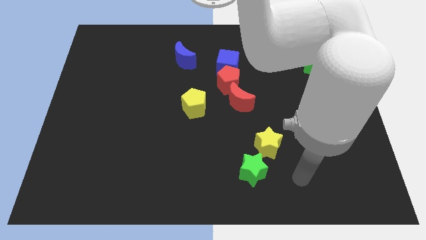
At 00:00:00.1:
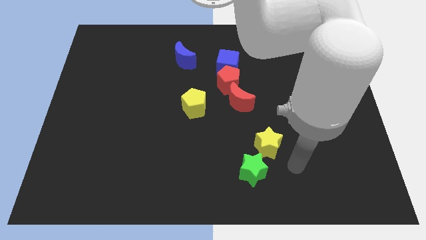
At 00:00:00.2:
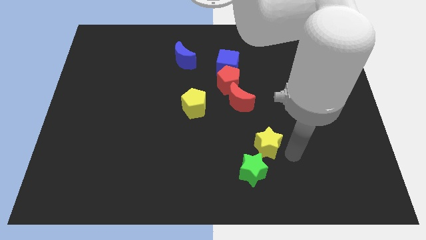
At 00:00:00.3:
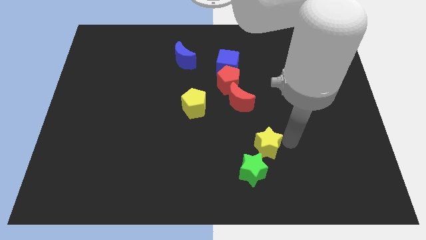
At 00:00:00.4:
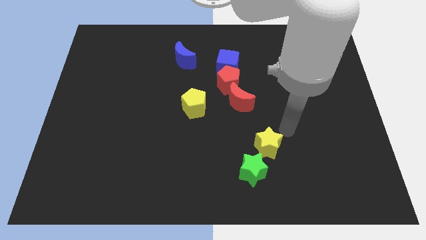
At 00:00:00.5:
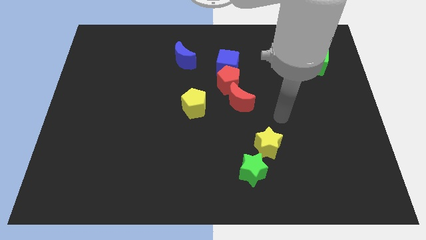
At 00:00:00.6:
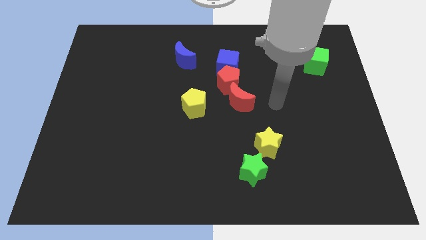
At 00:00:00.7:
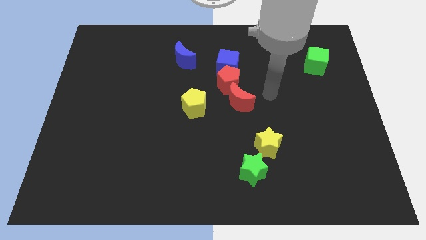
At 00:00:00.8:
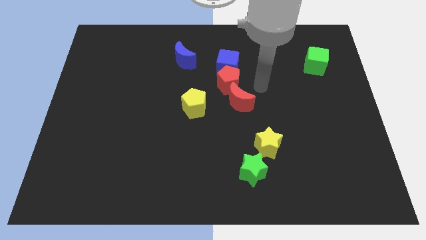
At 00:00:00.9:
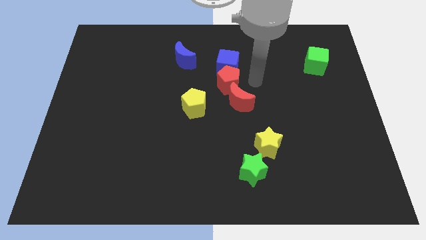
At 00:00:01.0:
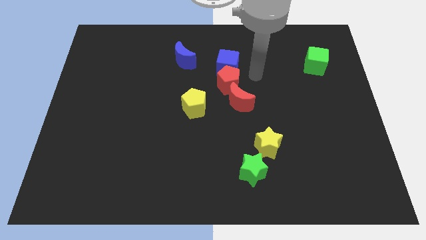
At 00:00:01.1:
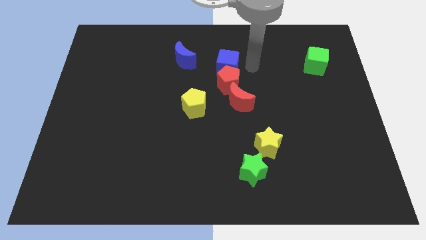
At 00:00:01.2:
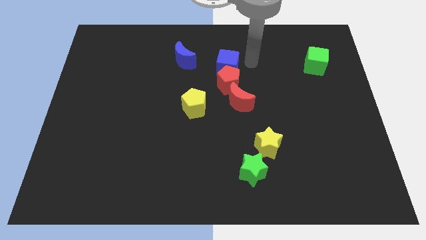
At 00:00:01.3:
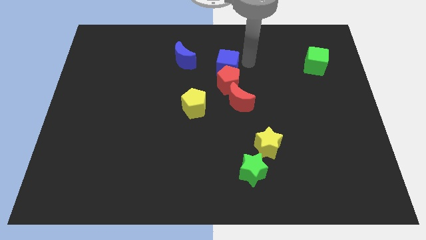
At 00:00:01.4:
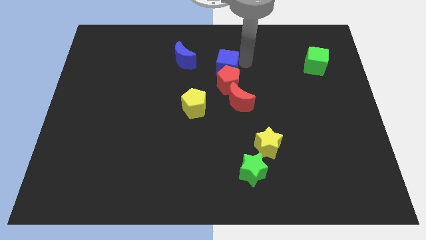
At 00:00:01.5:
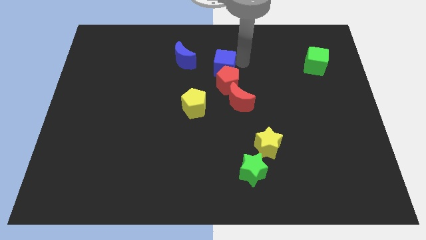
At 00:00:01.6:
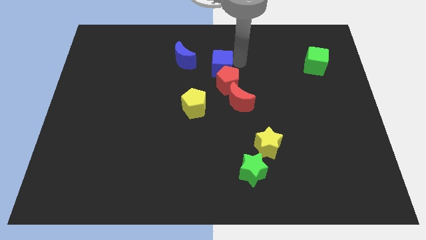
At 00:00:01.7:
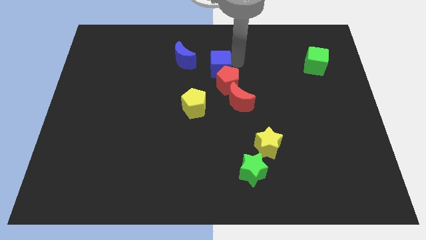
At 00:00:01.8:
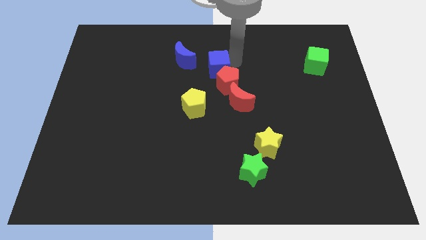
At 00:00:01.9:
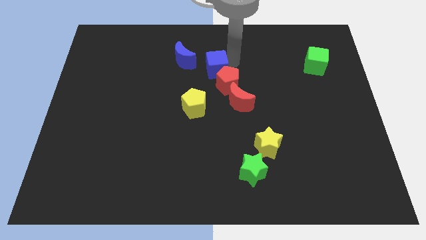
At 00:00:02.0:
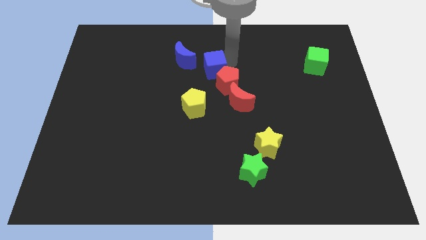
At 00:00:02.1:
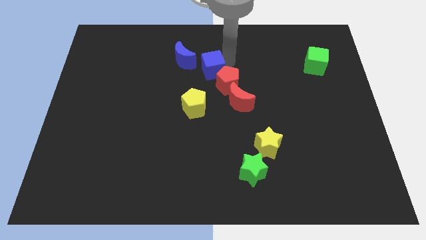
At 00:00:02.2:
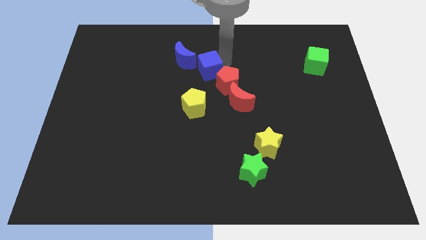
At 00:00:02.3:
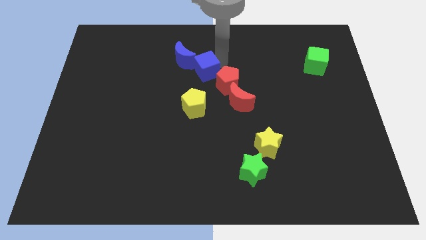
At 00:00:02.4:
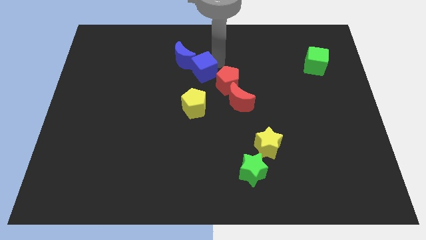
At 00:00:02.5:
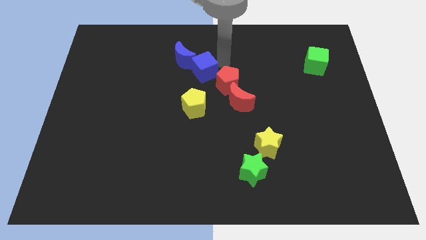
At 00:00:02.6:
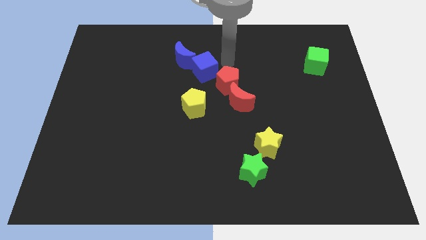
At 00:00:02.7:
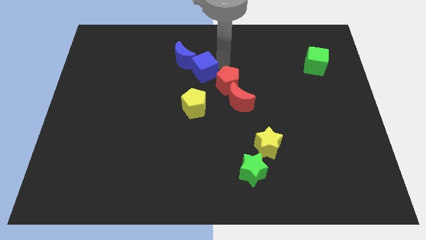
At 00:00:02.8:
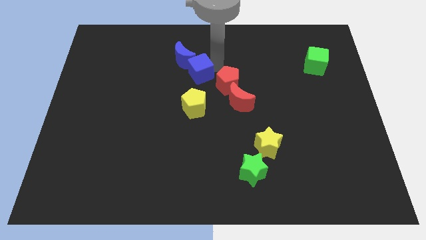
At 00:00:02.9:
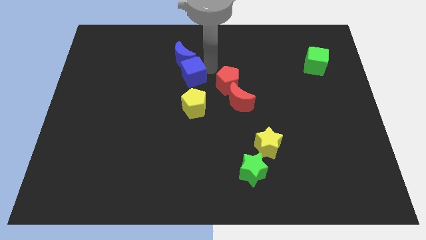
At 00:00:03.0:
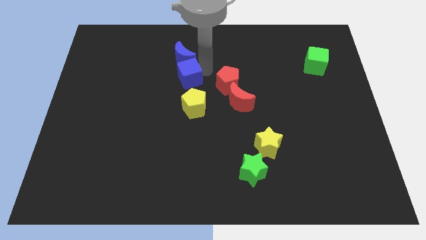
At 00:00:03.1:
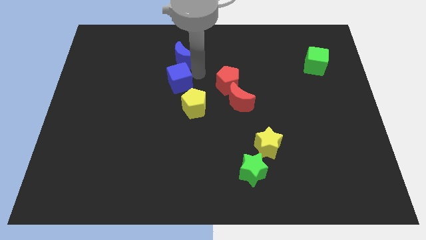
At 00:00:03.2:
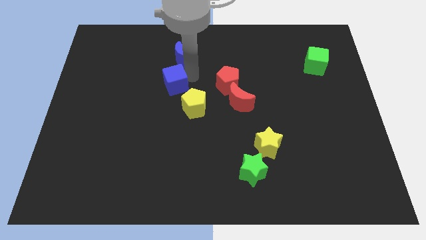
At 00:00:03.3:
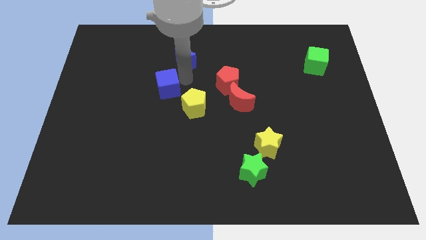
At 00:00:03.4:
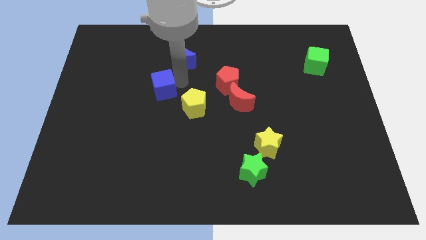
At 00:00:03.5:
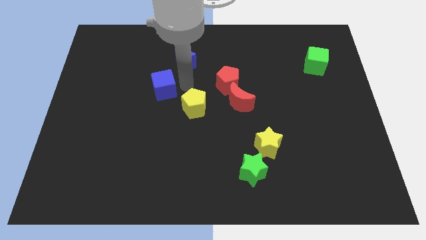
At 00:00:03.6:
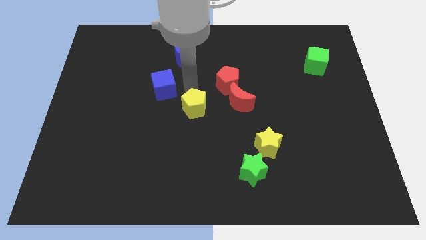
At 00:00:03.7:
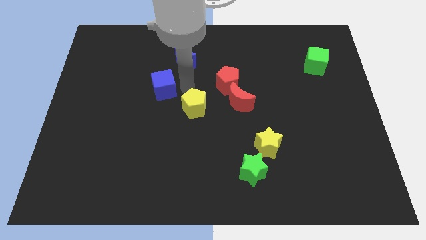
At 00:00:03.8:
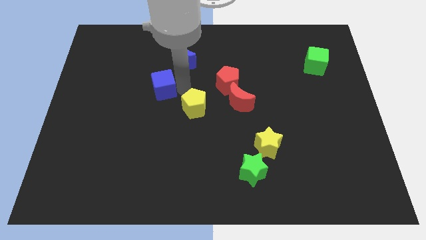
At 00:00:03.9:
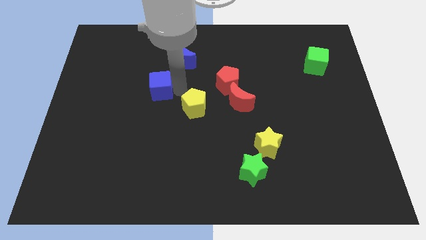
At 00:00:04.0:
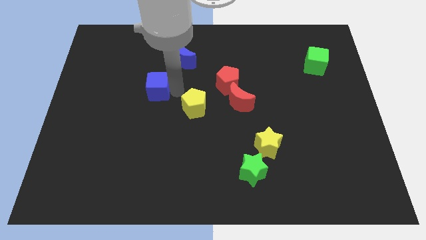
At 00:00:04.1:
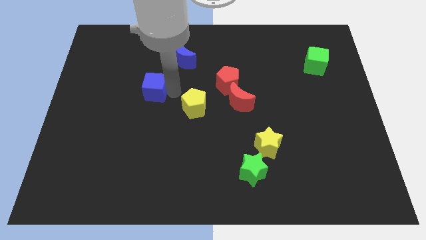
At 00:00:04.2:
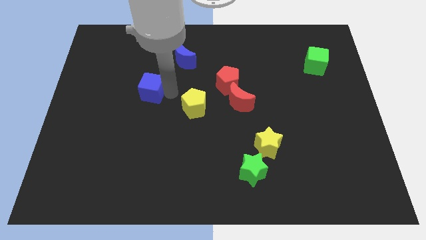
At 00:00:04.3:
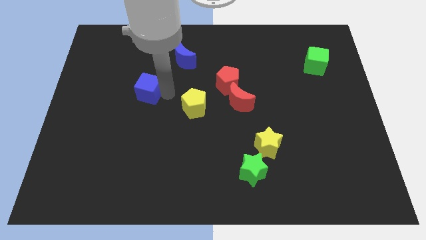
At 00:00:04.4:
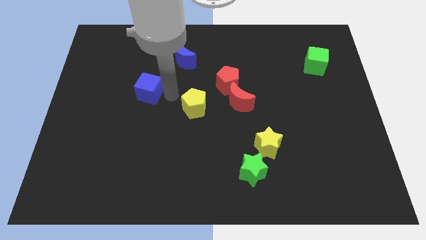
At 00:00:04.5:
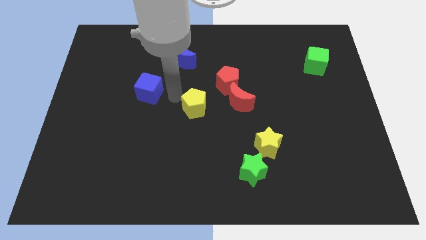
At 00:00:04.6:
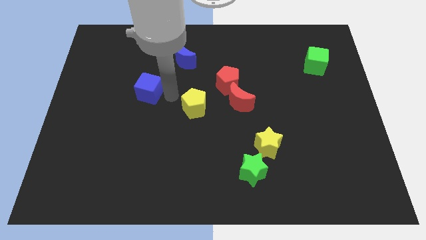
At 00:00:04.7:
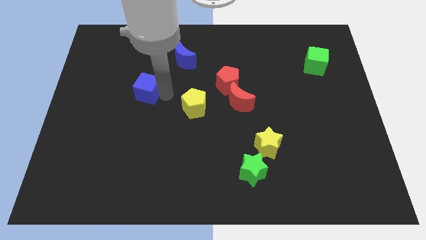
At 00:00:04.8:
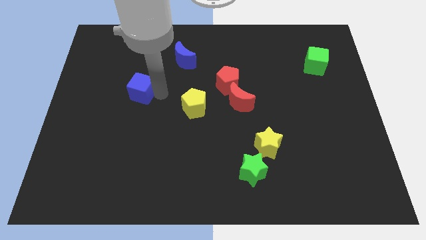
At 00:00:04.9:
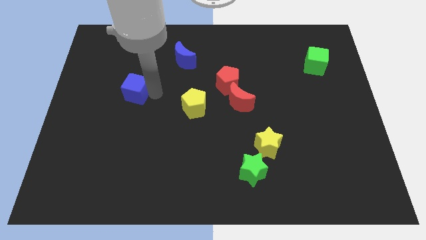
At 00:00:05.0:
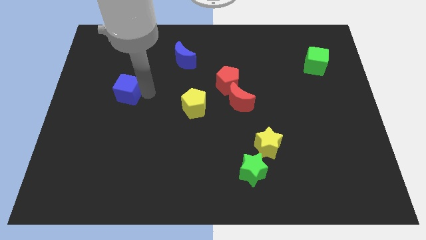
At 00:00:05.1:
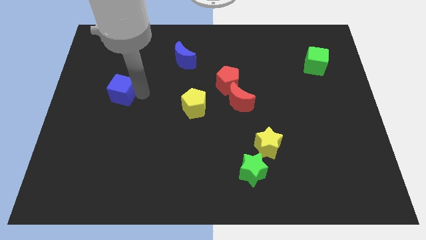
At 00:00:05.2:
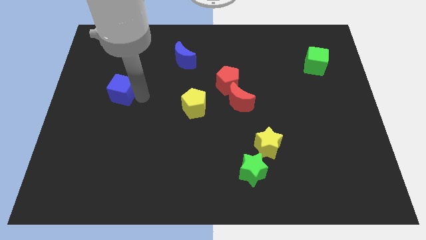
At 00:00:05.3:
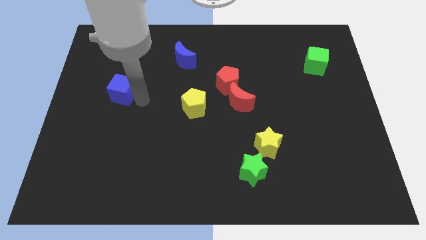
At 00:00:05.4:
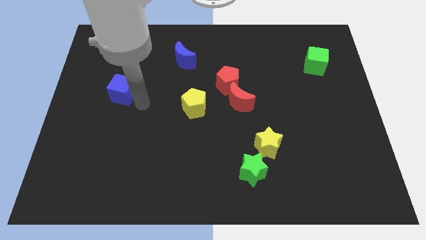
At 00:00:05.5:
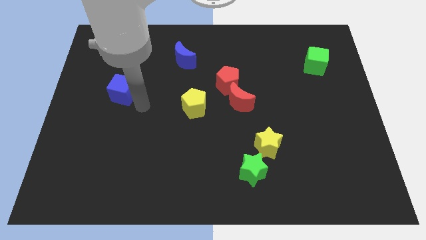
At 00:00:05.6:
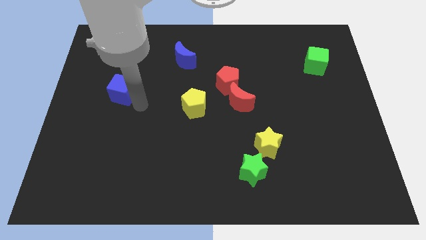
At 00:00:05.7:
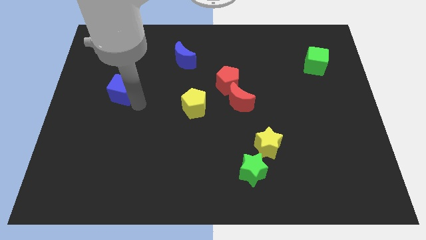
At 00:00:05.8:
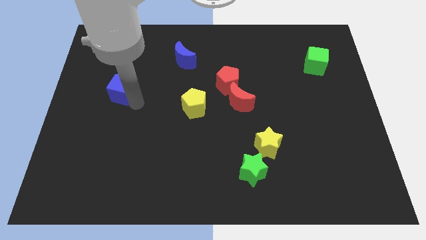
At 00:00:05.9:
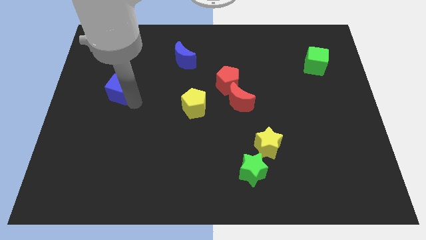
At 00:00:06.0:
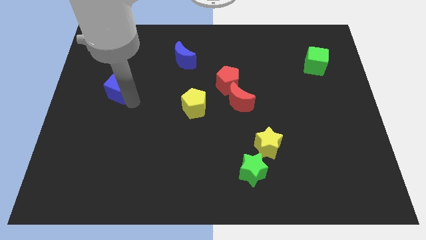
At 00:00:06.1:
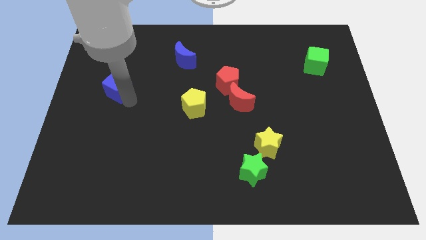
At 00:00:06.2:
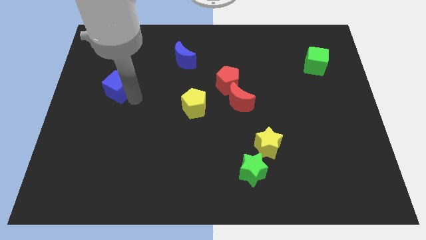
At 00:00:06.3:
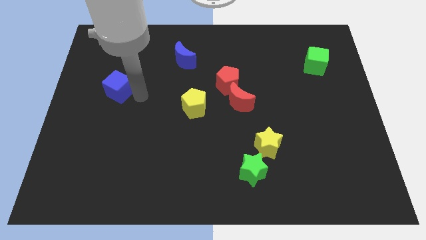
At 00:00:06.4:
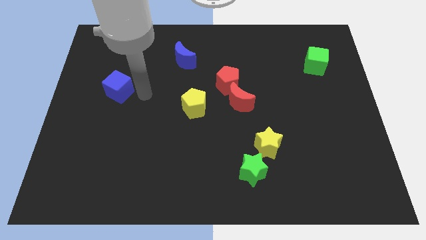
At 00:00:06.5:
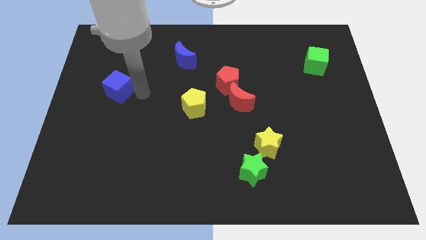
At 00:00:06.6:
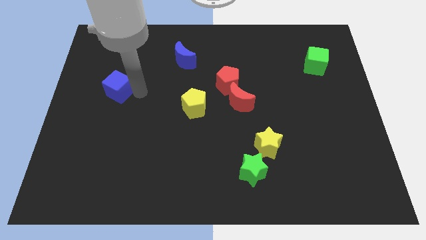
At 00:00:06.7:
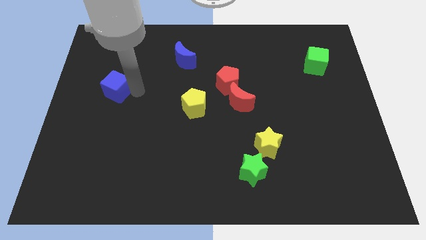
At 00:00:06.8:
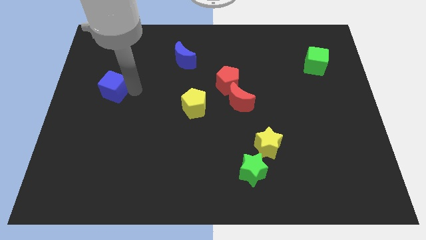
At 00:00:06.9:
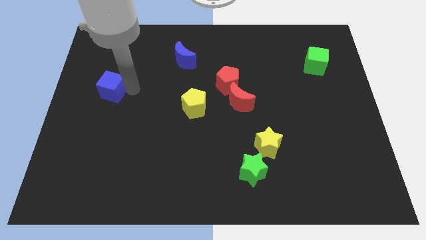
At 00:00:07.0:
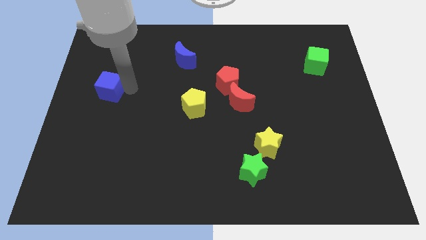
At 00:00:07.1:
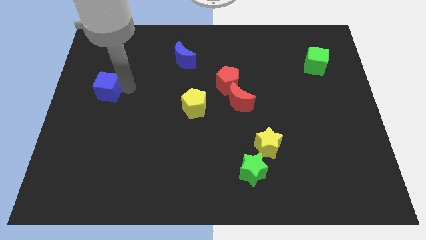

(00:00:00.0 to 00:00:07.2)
push the blue cube to the left side
